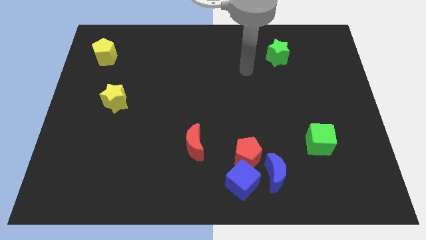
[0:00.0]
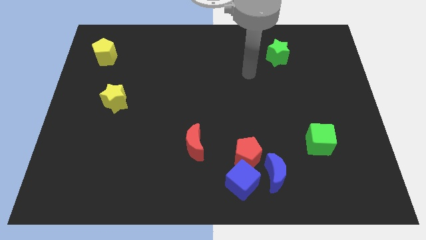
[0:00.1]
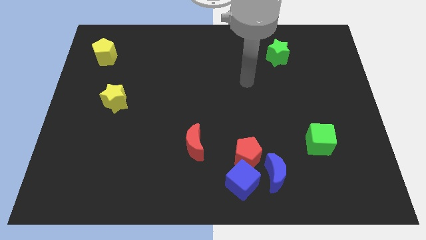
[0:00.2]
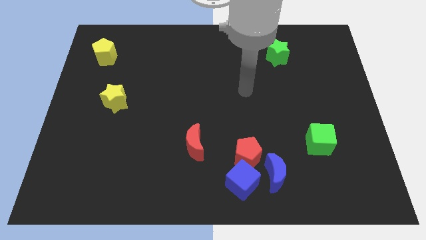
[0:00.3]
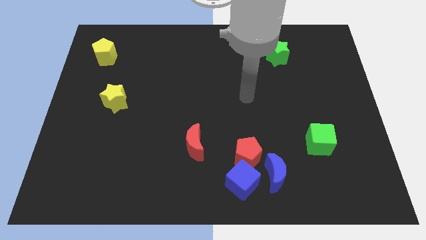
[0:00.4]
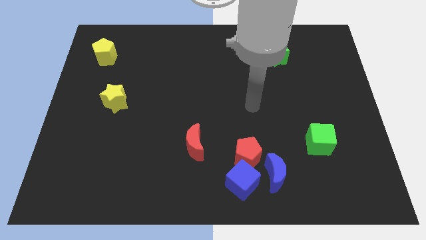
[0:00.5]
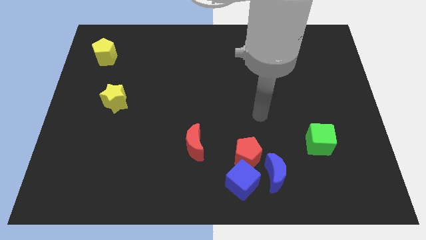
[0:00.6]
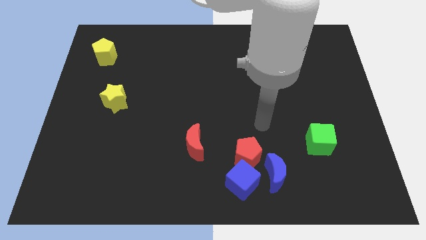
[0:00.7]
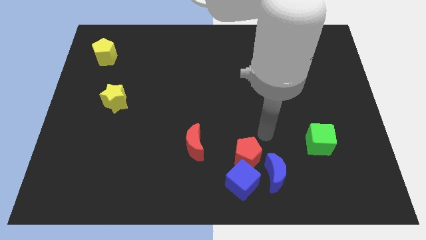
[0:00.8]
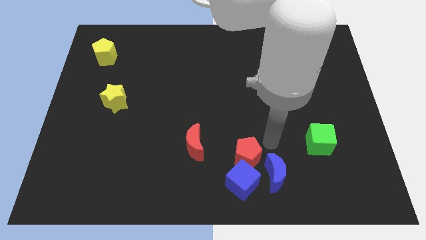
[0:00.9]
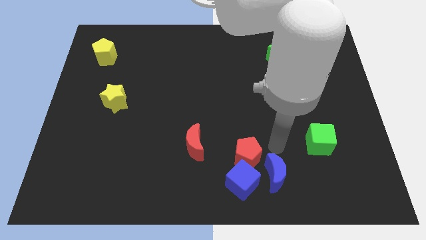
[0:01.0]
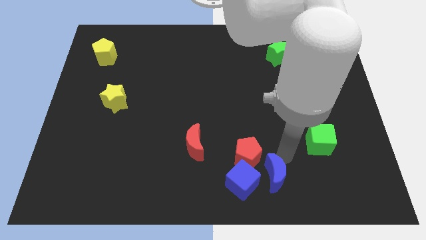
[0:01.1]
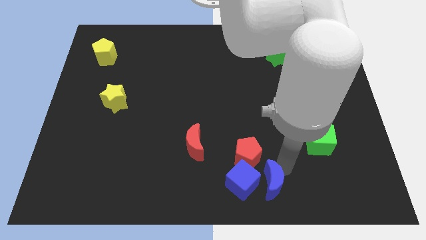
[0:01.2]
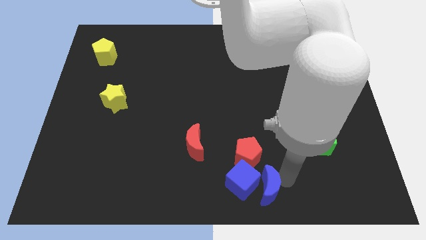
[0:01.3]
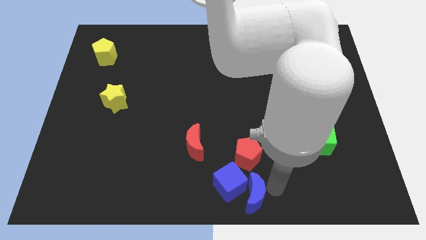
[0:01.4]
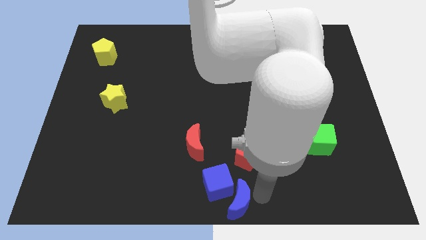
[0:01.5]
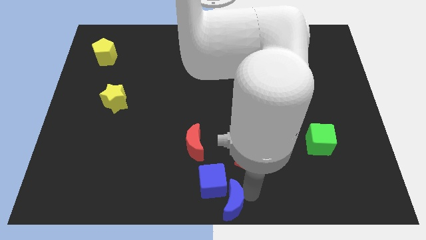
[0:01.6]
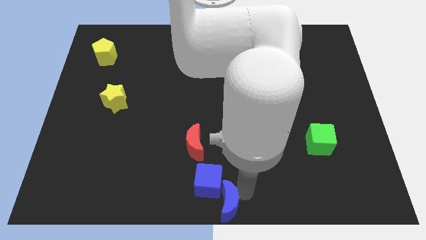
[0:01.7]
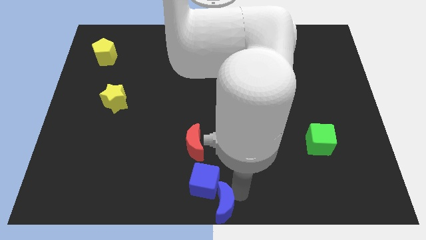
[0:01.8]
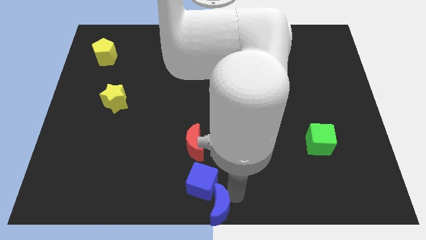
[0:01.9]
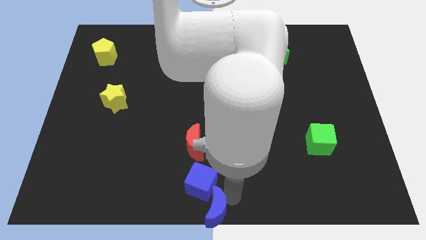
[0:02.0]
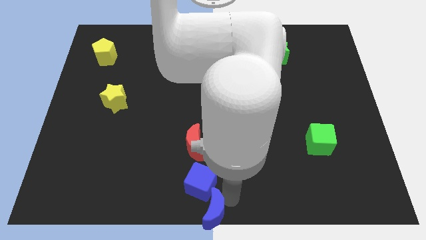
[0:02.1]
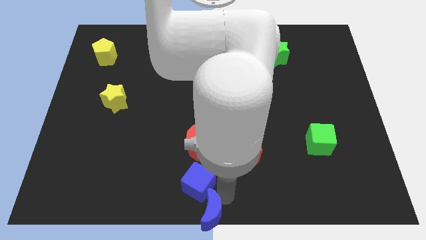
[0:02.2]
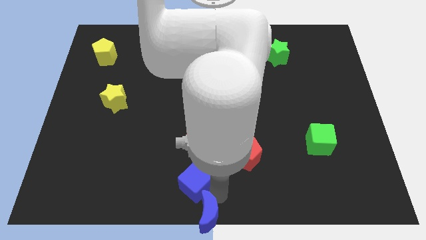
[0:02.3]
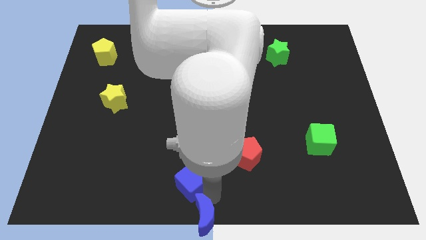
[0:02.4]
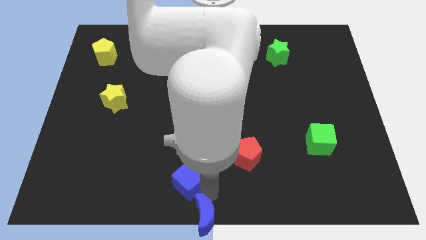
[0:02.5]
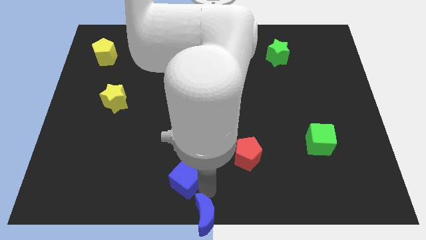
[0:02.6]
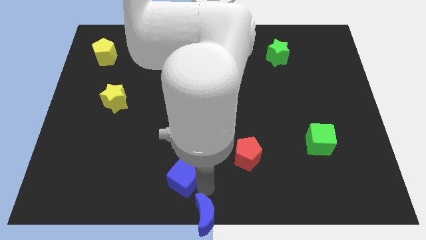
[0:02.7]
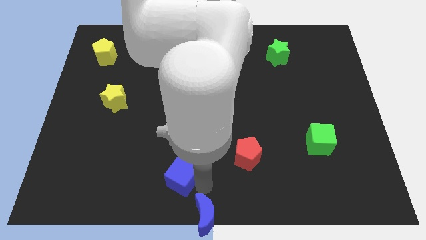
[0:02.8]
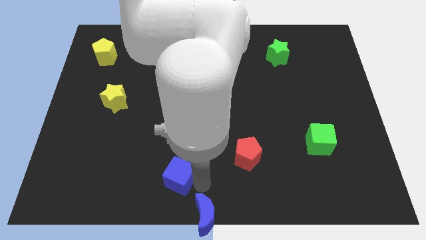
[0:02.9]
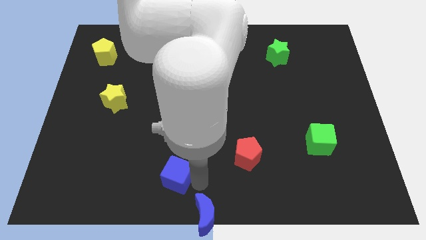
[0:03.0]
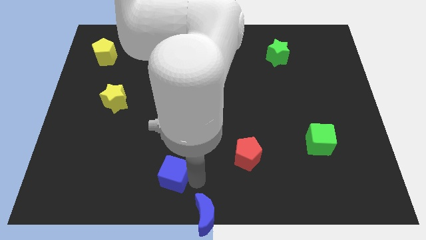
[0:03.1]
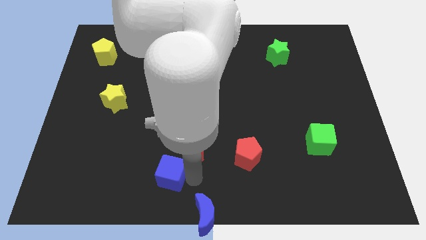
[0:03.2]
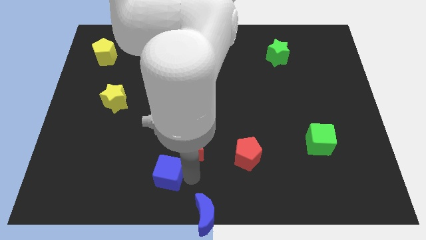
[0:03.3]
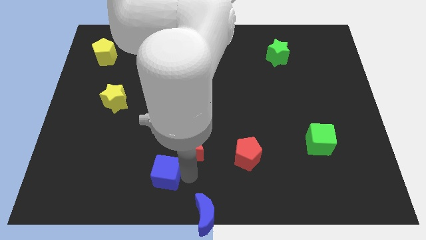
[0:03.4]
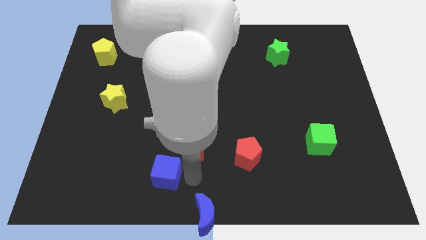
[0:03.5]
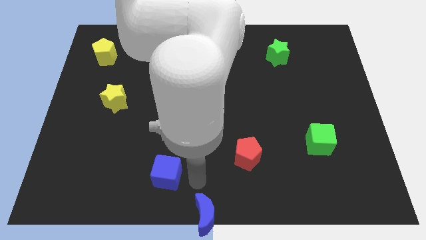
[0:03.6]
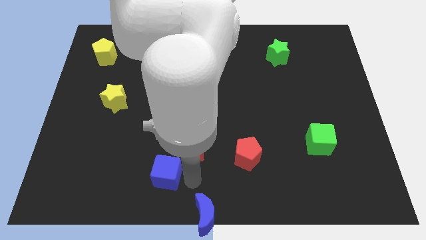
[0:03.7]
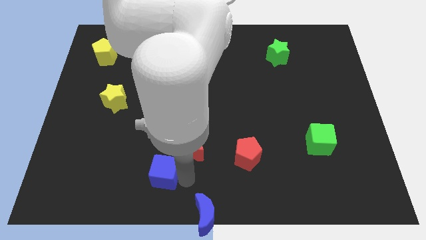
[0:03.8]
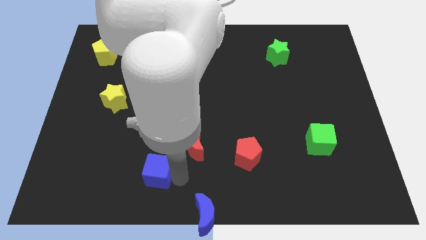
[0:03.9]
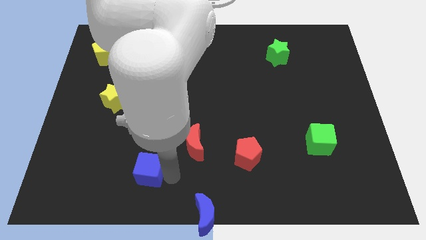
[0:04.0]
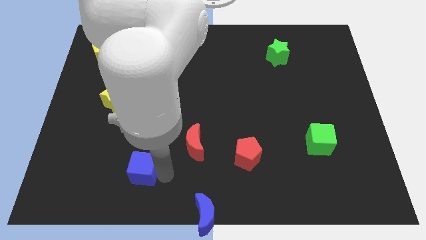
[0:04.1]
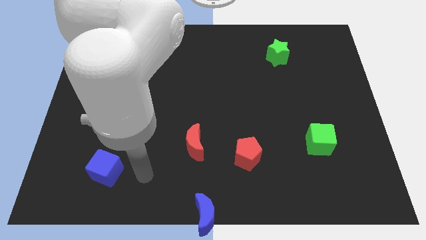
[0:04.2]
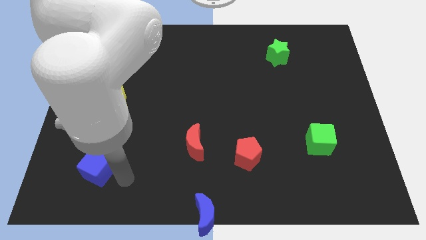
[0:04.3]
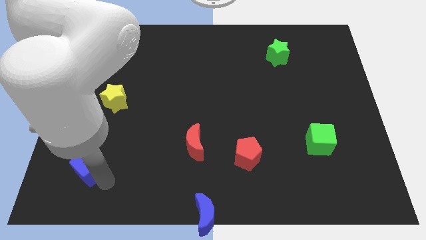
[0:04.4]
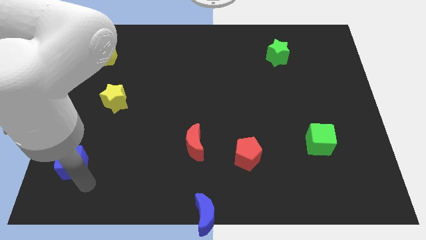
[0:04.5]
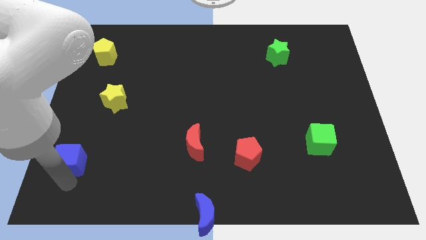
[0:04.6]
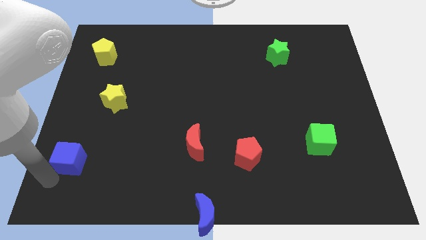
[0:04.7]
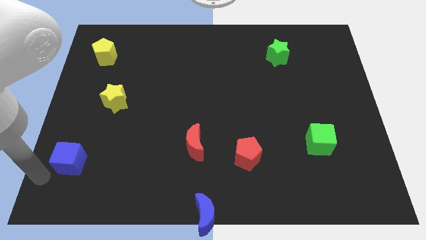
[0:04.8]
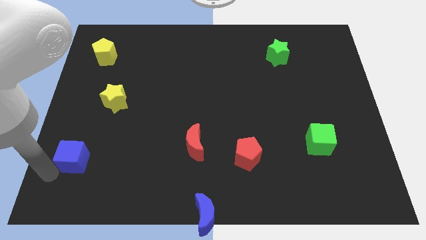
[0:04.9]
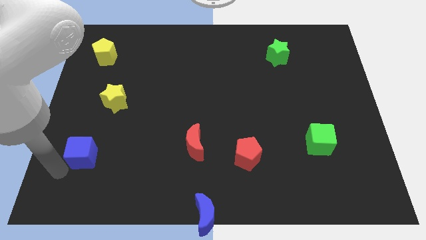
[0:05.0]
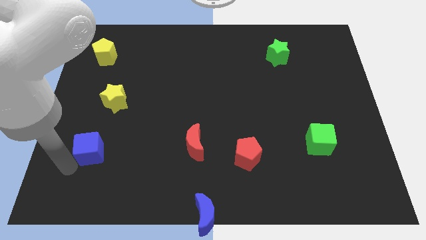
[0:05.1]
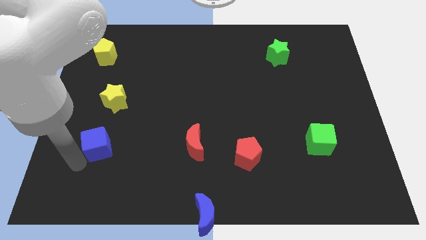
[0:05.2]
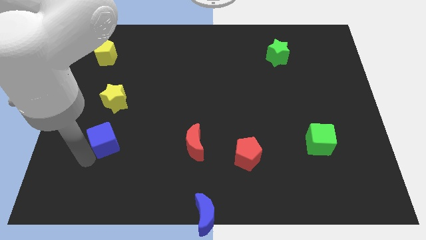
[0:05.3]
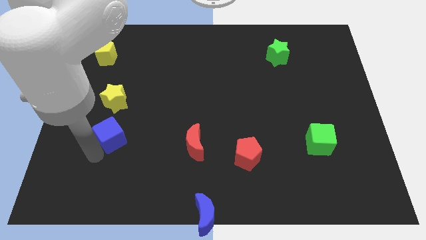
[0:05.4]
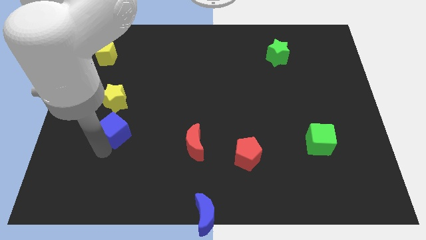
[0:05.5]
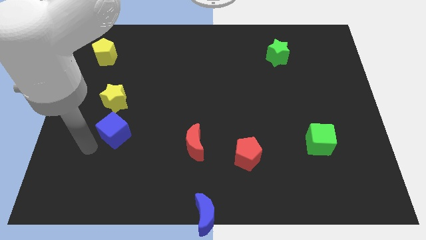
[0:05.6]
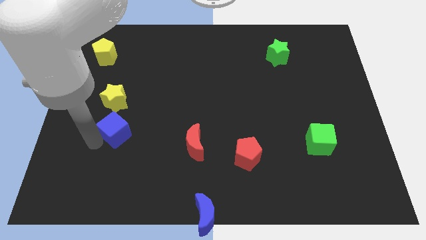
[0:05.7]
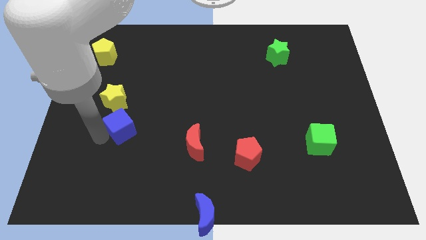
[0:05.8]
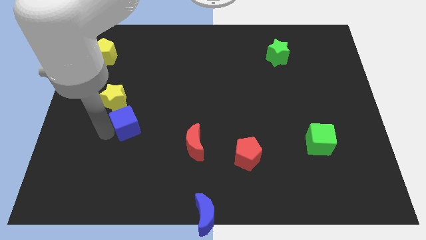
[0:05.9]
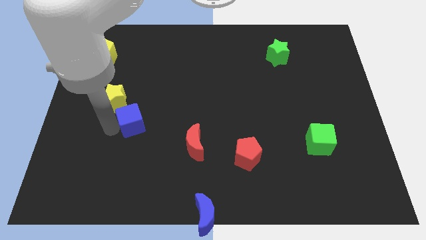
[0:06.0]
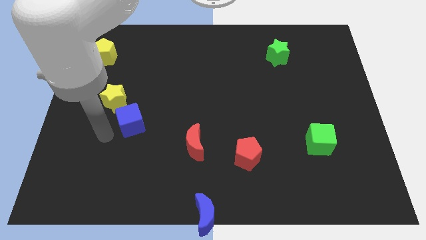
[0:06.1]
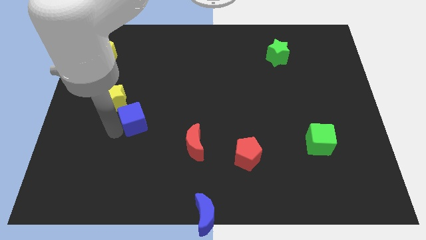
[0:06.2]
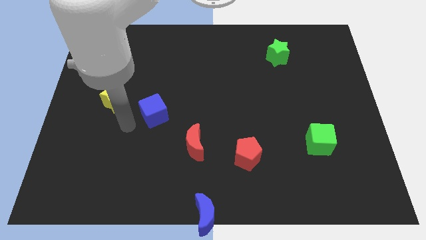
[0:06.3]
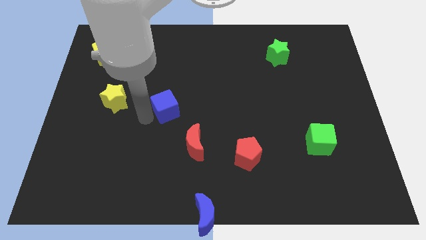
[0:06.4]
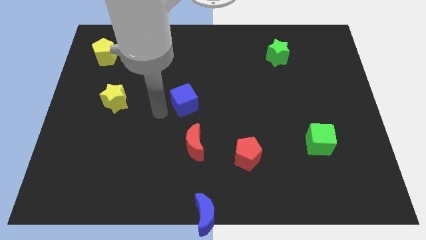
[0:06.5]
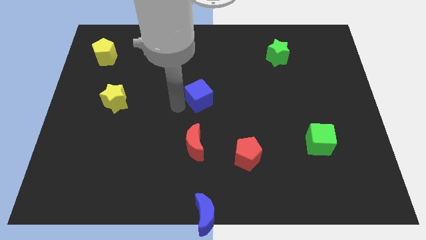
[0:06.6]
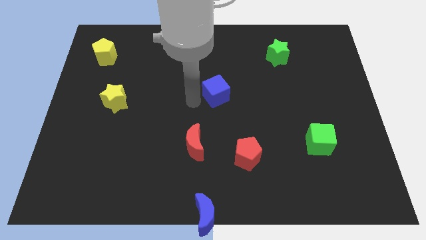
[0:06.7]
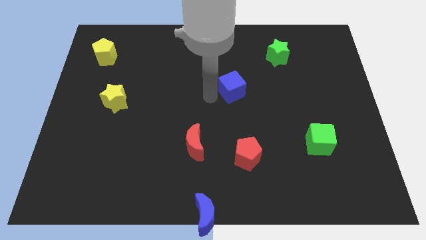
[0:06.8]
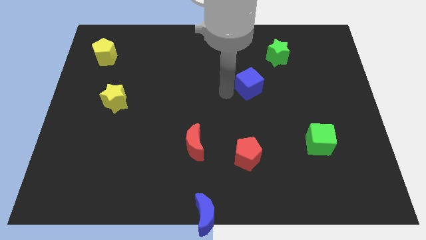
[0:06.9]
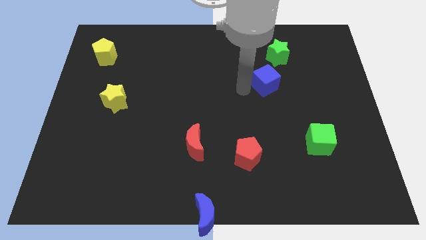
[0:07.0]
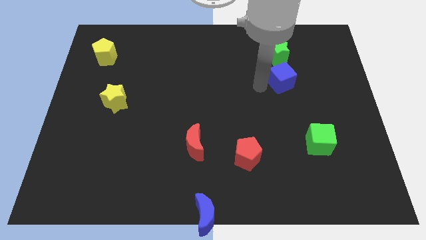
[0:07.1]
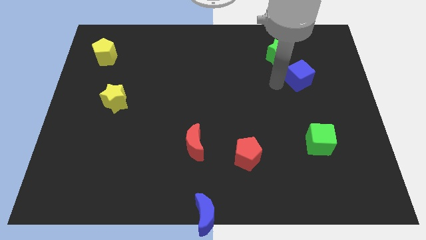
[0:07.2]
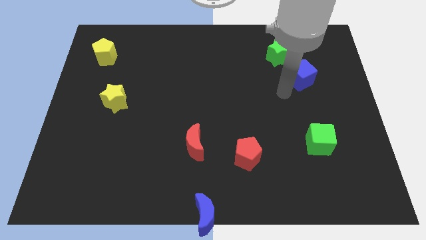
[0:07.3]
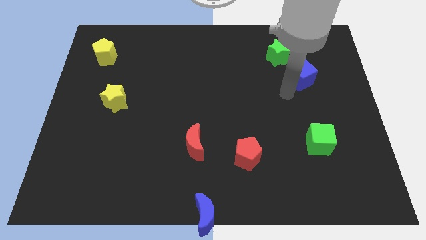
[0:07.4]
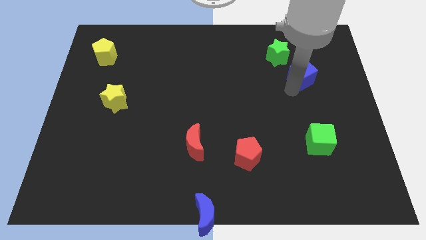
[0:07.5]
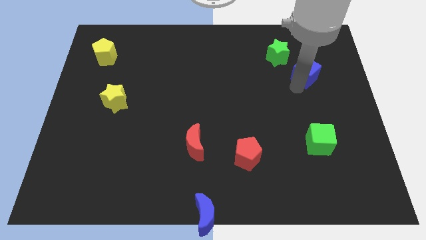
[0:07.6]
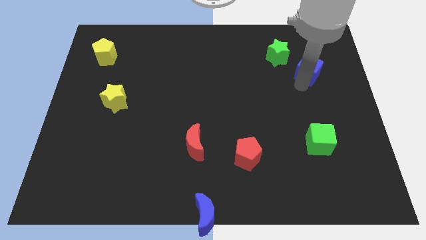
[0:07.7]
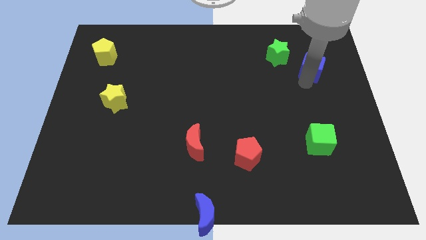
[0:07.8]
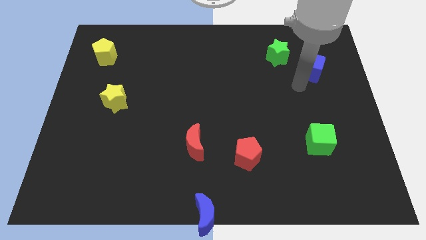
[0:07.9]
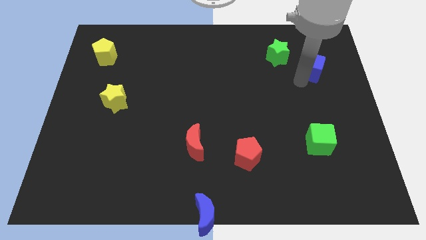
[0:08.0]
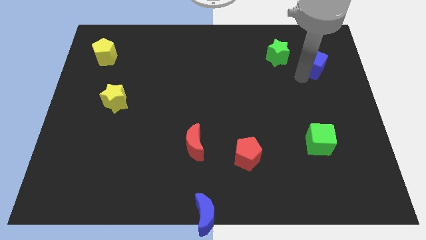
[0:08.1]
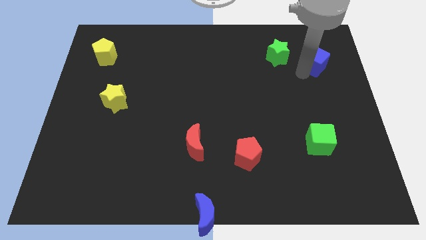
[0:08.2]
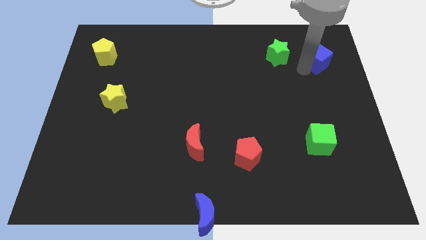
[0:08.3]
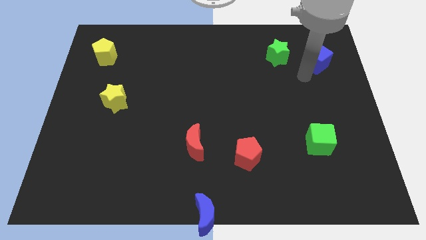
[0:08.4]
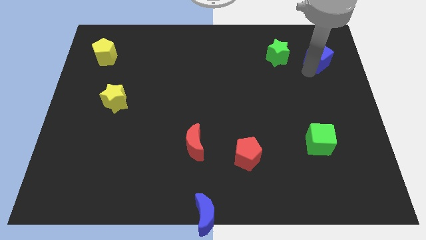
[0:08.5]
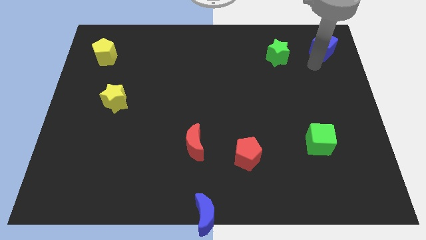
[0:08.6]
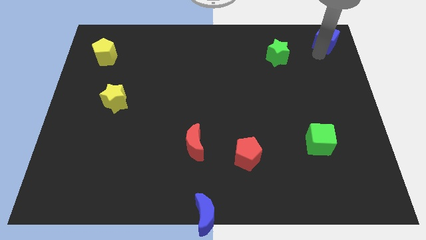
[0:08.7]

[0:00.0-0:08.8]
put the blue cube to the top right corner
